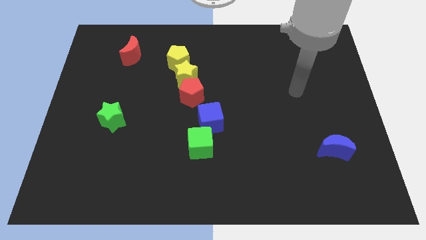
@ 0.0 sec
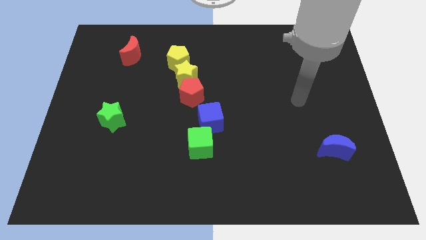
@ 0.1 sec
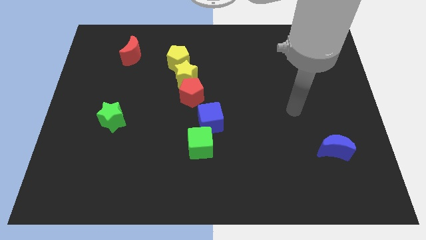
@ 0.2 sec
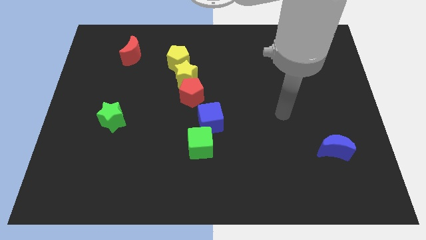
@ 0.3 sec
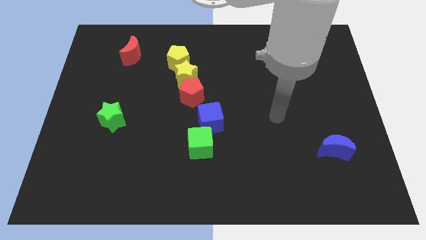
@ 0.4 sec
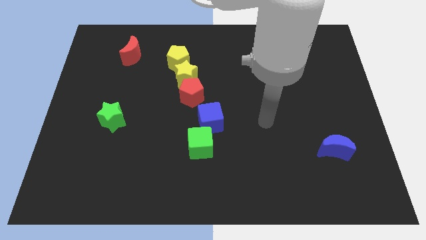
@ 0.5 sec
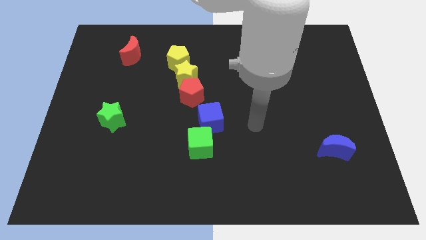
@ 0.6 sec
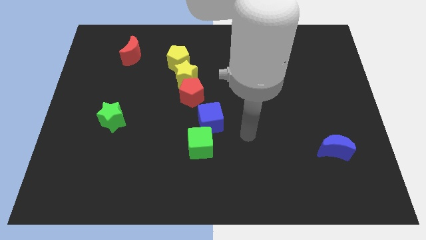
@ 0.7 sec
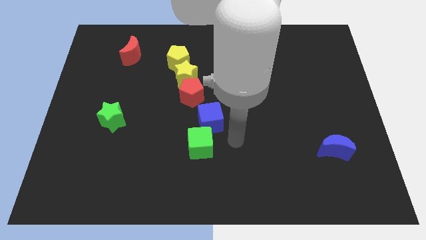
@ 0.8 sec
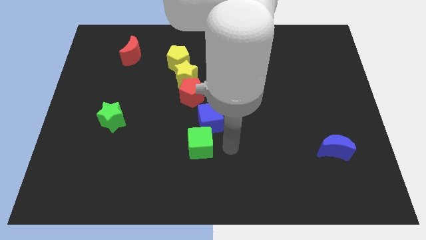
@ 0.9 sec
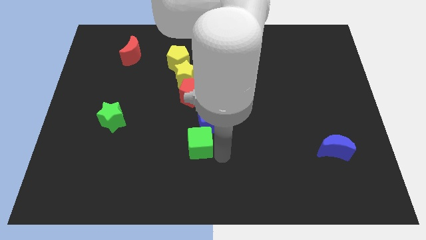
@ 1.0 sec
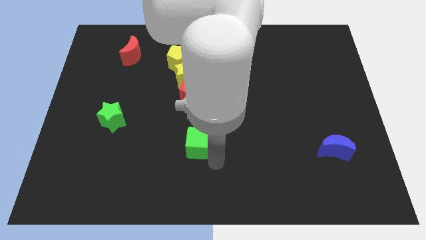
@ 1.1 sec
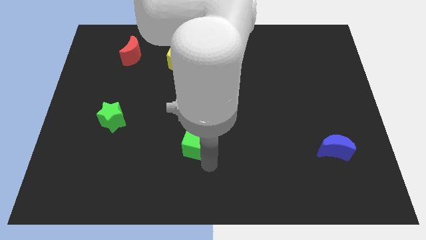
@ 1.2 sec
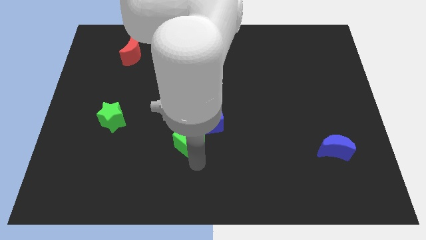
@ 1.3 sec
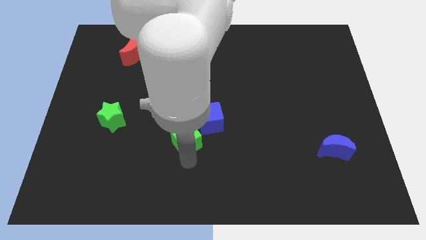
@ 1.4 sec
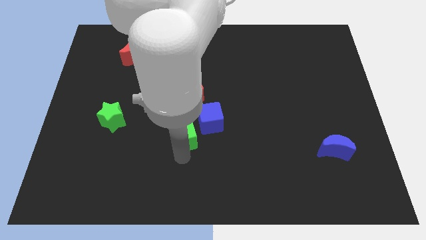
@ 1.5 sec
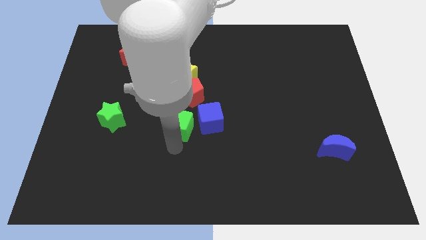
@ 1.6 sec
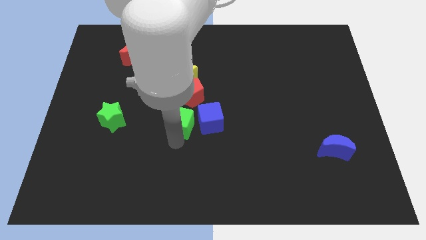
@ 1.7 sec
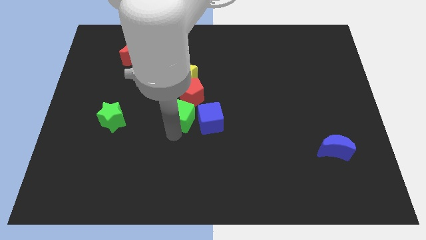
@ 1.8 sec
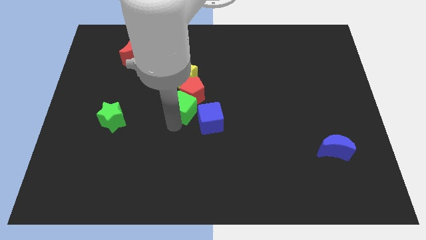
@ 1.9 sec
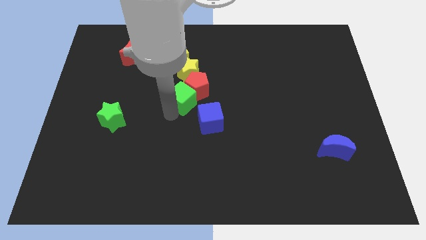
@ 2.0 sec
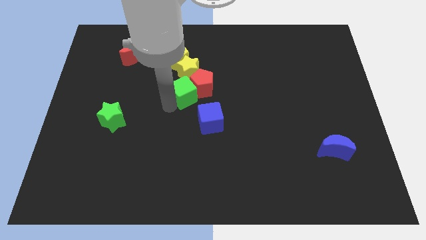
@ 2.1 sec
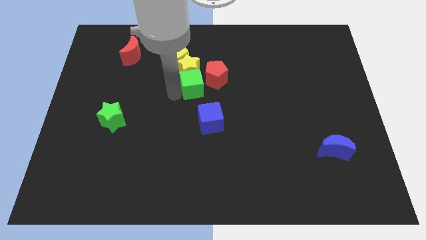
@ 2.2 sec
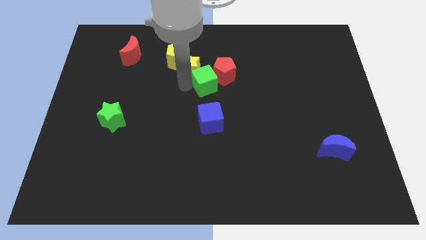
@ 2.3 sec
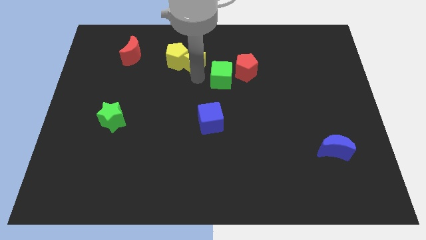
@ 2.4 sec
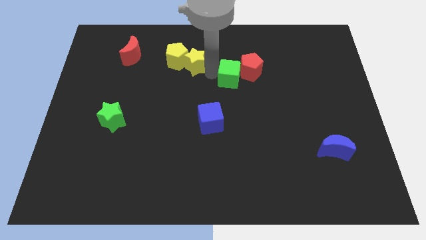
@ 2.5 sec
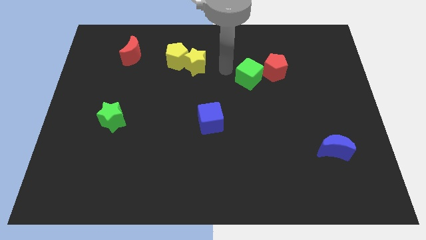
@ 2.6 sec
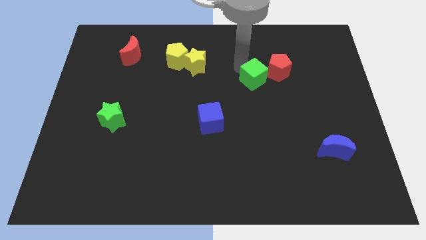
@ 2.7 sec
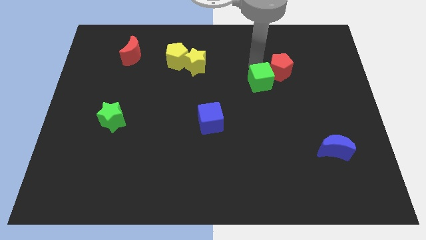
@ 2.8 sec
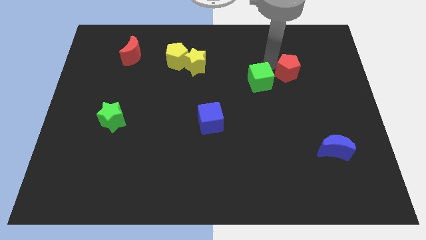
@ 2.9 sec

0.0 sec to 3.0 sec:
push the red pentagon right

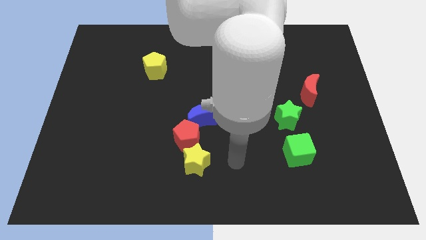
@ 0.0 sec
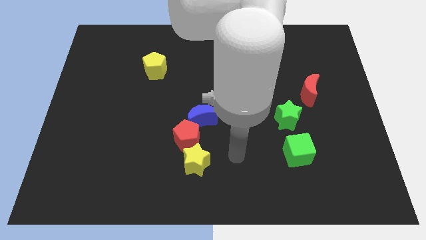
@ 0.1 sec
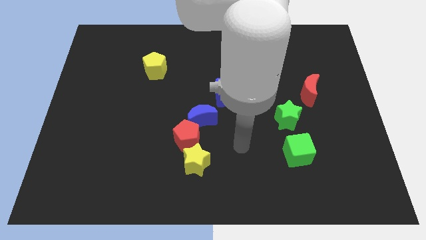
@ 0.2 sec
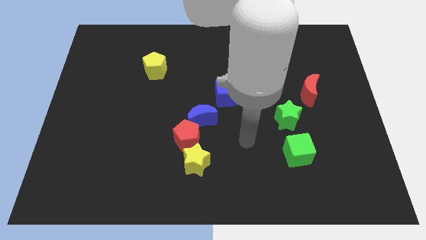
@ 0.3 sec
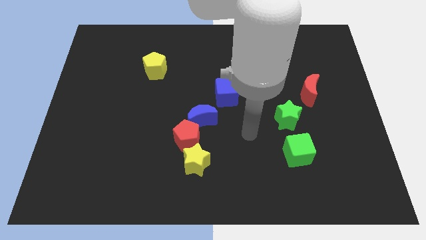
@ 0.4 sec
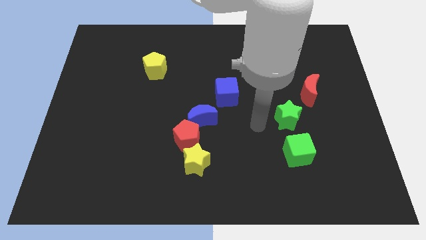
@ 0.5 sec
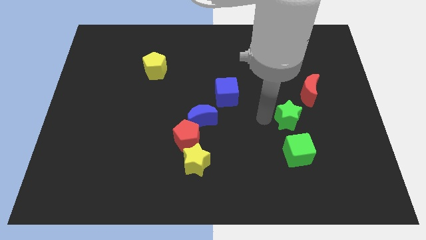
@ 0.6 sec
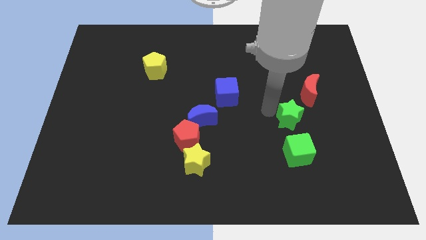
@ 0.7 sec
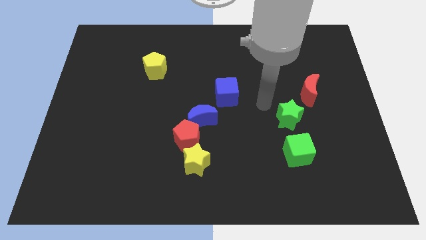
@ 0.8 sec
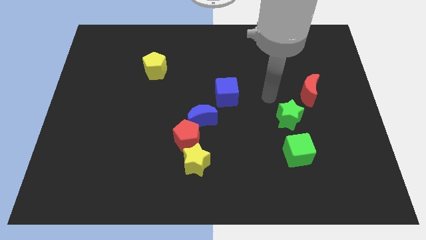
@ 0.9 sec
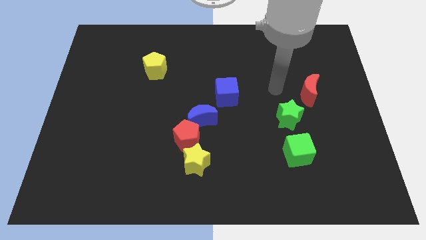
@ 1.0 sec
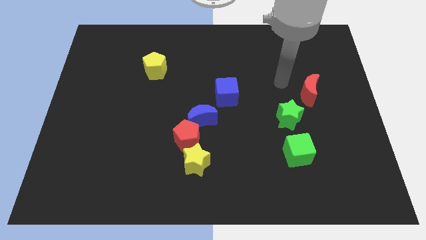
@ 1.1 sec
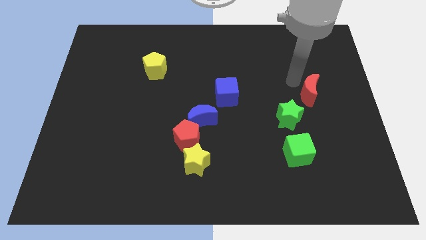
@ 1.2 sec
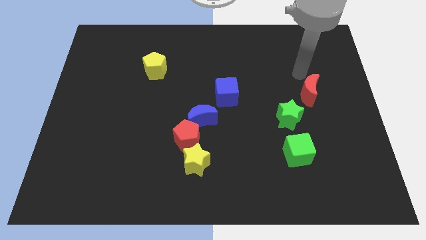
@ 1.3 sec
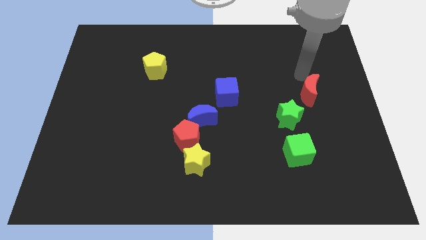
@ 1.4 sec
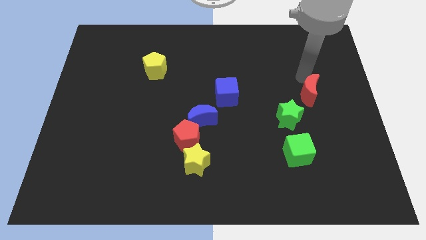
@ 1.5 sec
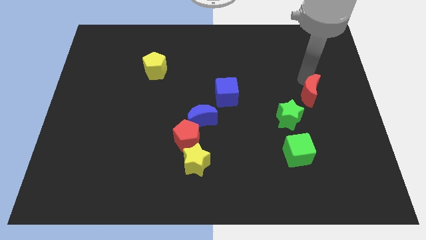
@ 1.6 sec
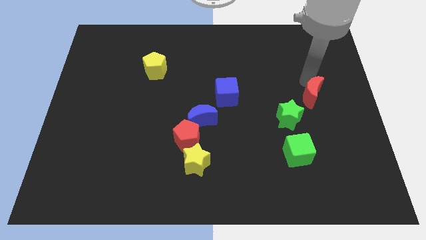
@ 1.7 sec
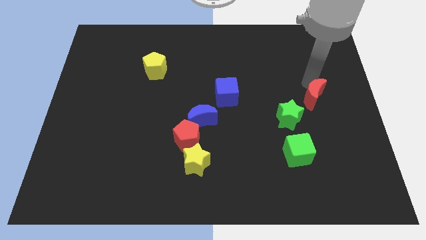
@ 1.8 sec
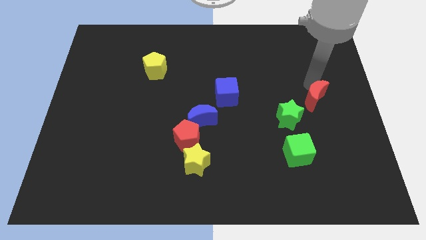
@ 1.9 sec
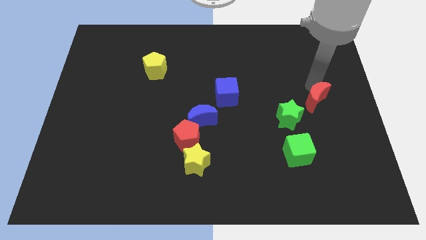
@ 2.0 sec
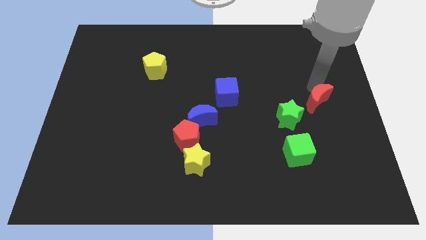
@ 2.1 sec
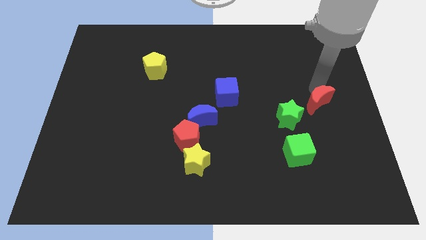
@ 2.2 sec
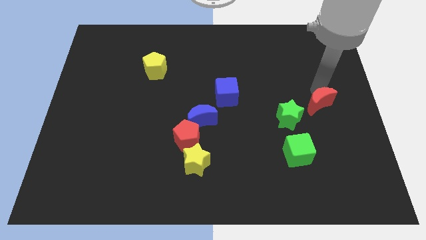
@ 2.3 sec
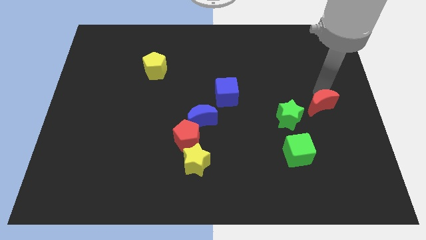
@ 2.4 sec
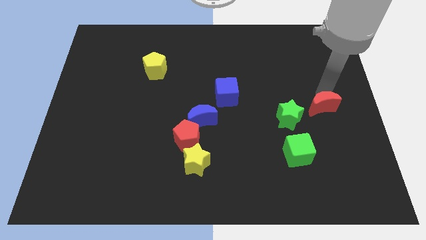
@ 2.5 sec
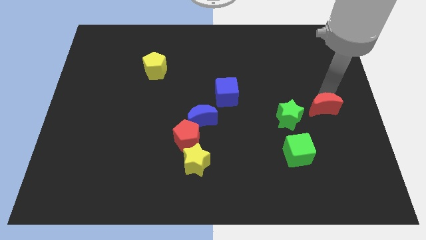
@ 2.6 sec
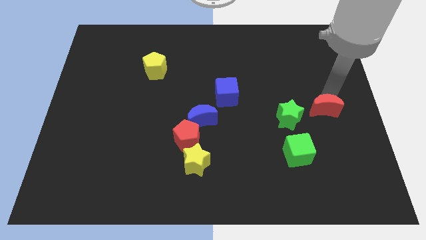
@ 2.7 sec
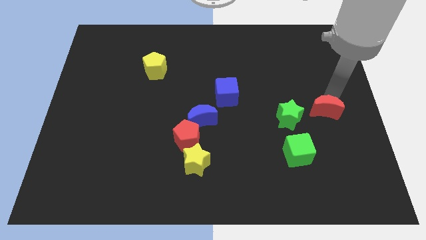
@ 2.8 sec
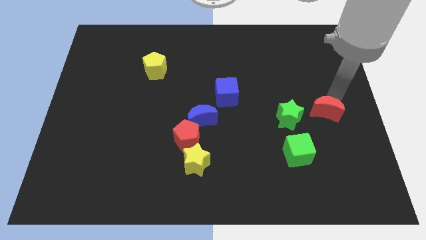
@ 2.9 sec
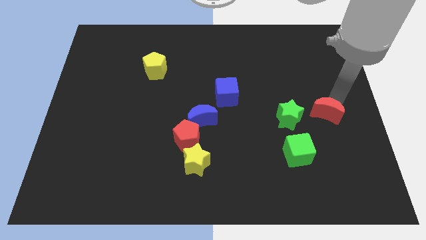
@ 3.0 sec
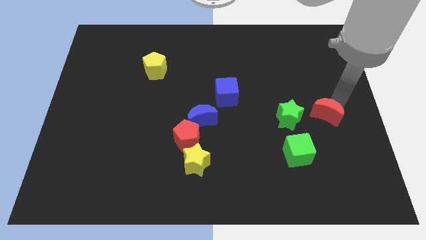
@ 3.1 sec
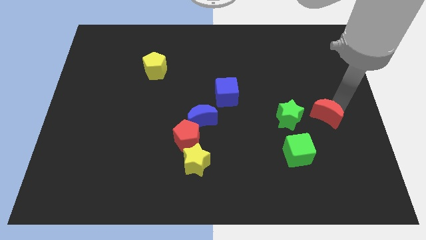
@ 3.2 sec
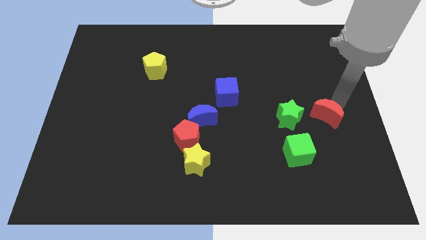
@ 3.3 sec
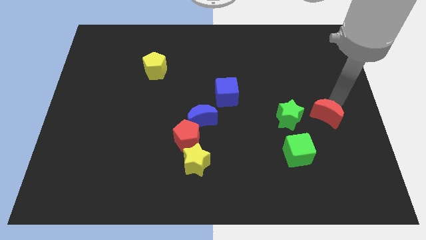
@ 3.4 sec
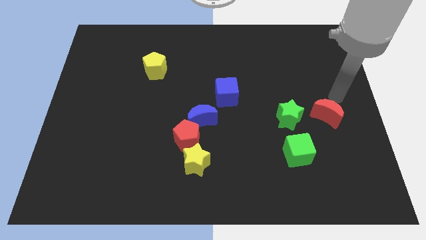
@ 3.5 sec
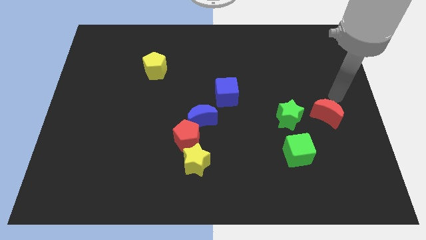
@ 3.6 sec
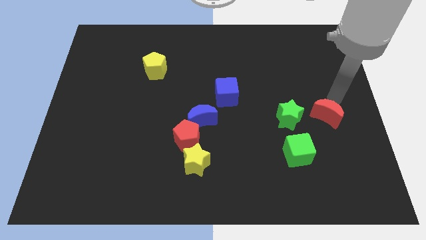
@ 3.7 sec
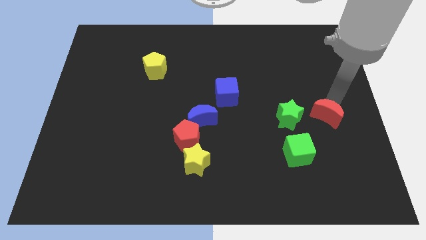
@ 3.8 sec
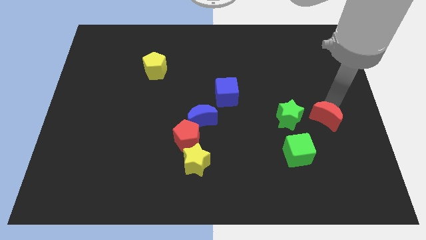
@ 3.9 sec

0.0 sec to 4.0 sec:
slightly move the red moon down

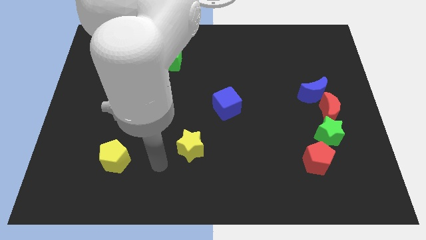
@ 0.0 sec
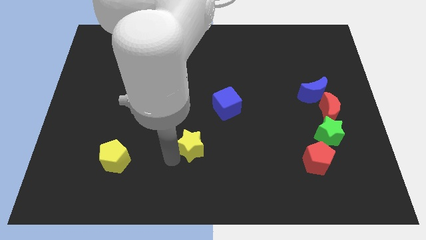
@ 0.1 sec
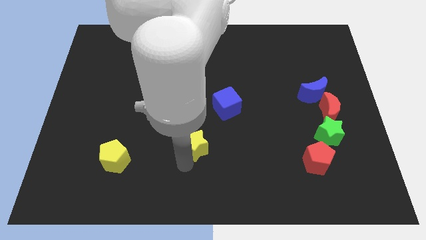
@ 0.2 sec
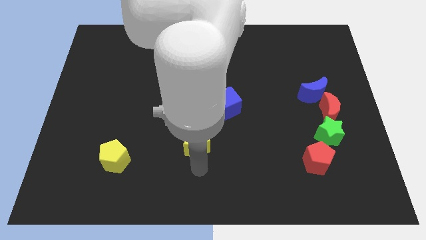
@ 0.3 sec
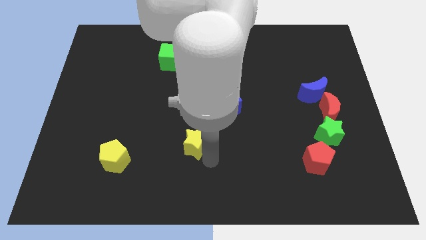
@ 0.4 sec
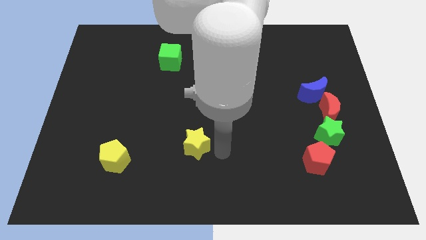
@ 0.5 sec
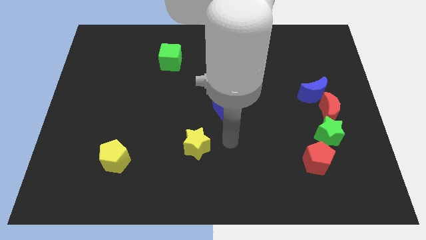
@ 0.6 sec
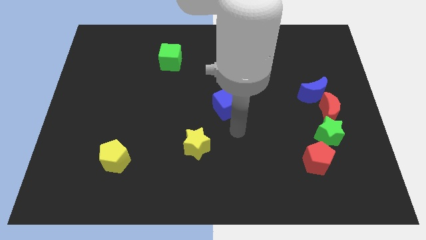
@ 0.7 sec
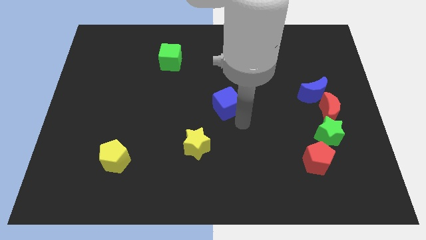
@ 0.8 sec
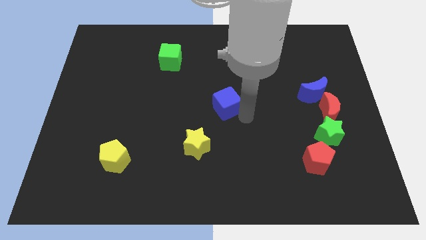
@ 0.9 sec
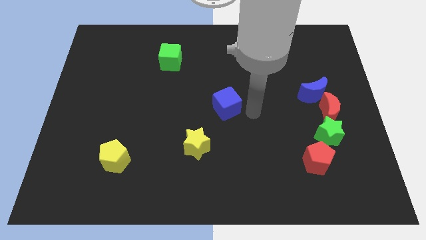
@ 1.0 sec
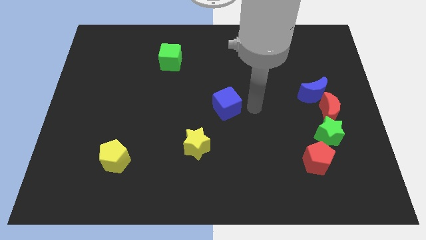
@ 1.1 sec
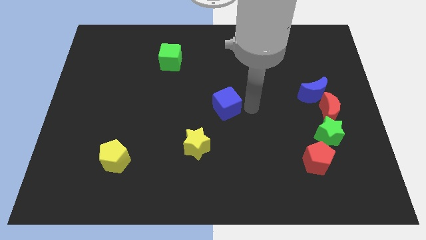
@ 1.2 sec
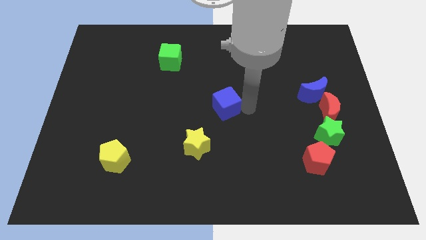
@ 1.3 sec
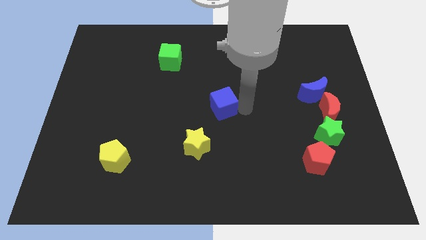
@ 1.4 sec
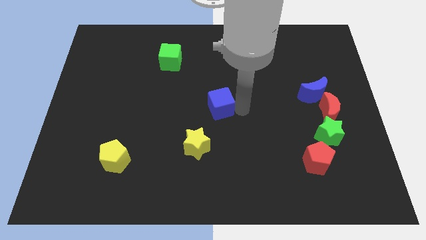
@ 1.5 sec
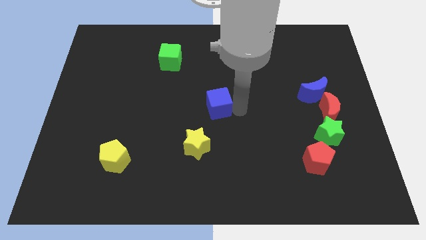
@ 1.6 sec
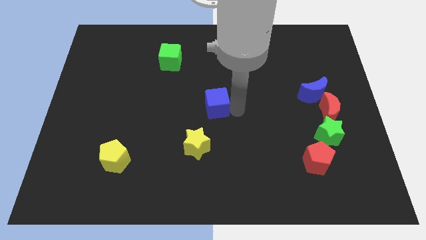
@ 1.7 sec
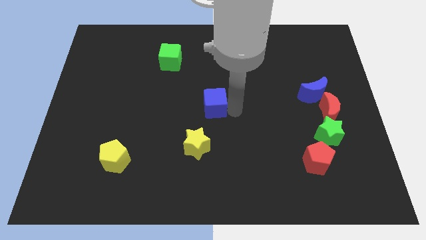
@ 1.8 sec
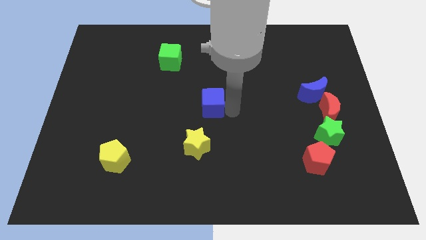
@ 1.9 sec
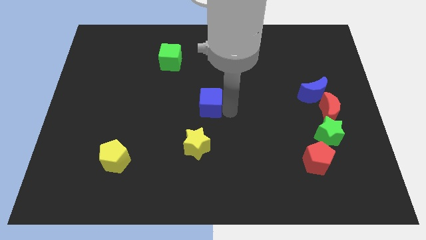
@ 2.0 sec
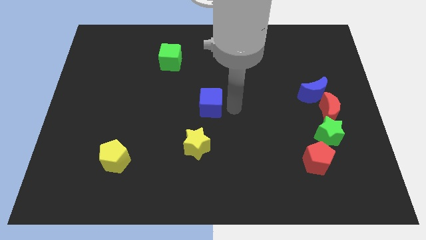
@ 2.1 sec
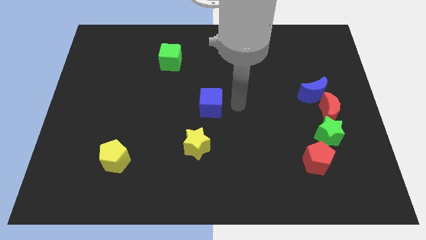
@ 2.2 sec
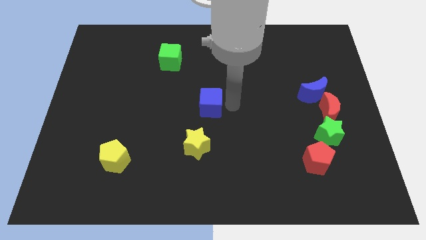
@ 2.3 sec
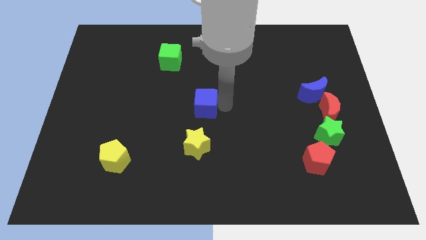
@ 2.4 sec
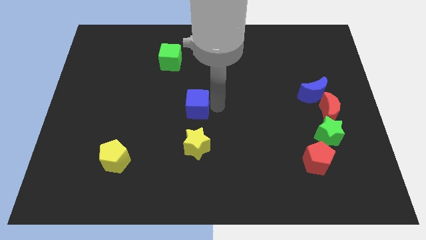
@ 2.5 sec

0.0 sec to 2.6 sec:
push the blue cube left a little
